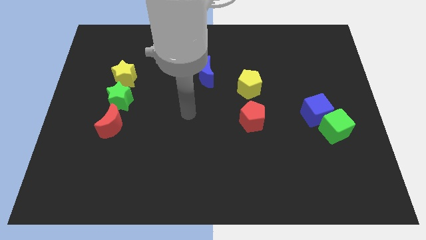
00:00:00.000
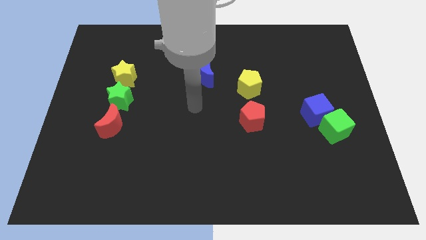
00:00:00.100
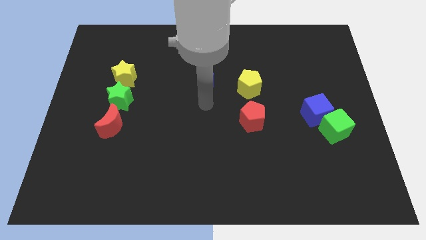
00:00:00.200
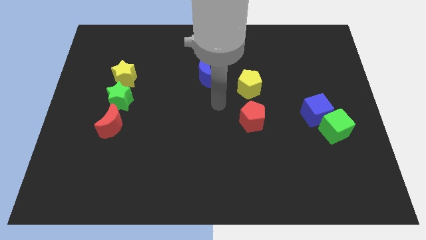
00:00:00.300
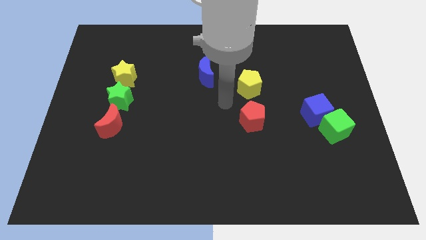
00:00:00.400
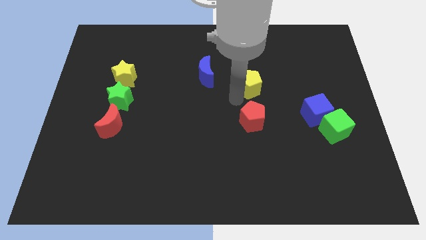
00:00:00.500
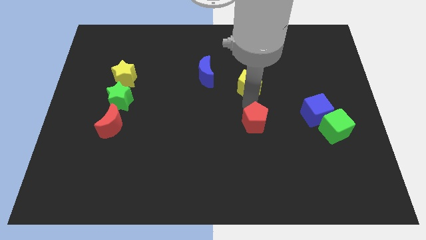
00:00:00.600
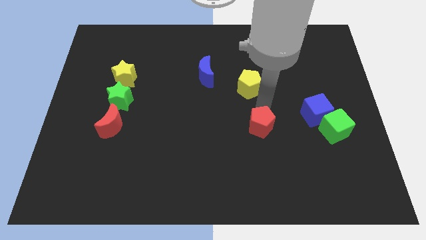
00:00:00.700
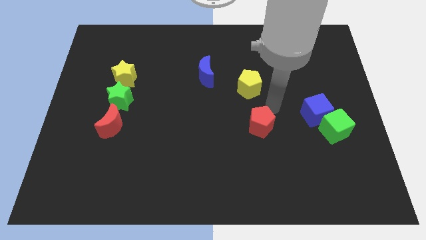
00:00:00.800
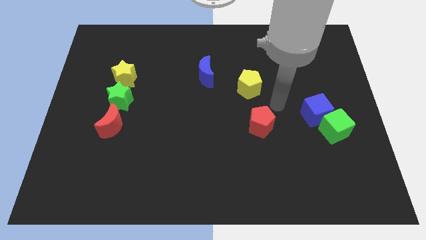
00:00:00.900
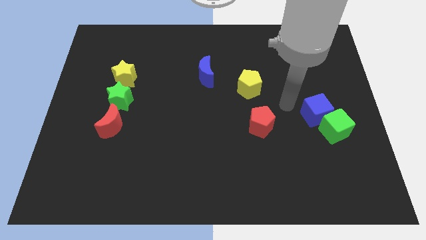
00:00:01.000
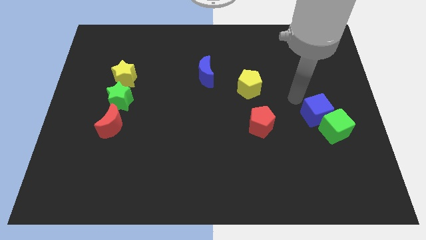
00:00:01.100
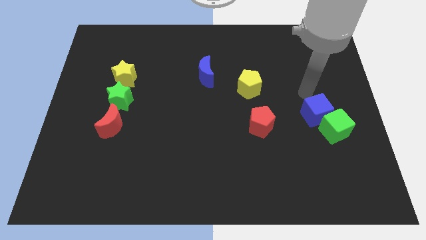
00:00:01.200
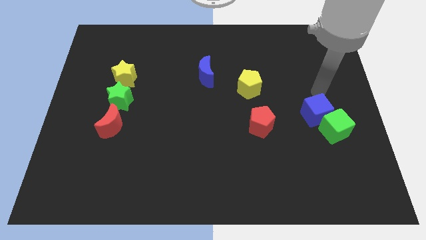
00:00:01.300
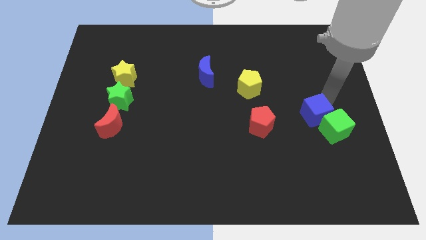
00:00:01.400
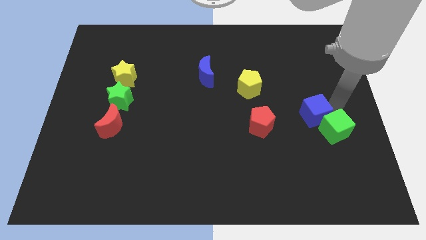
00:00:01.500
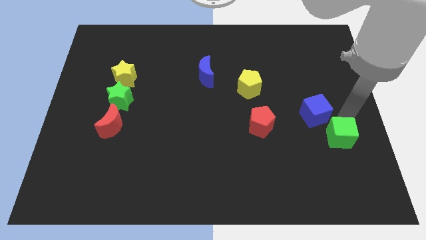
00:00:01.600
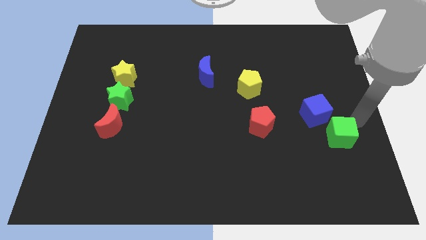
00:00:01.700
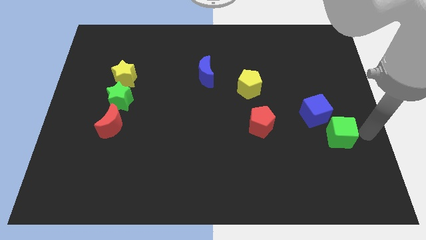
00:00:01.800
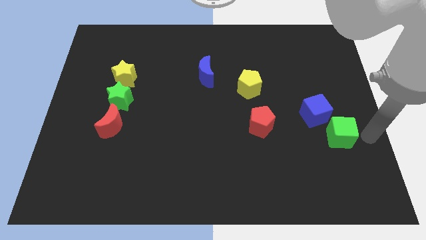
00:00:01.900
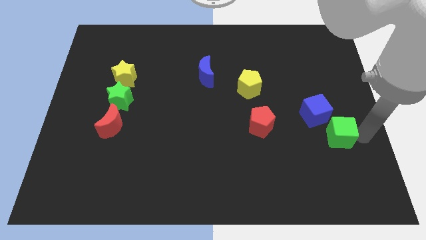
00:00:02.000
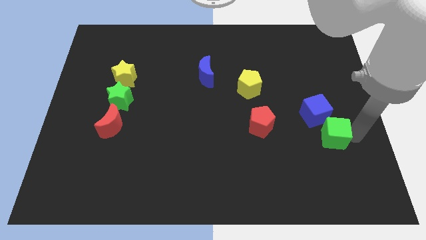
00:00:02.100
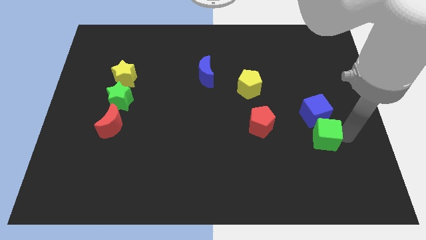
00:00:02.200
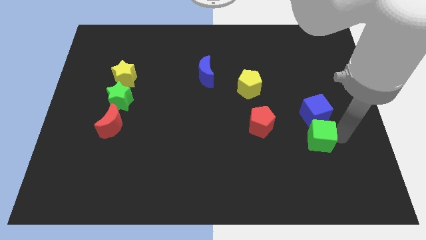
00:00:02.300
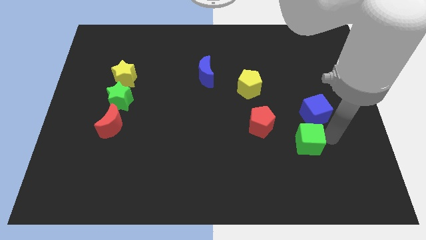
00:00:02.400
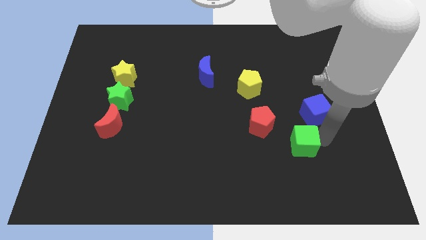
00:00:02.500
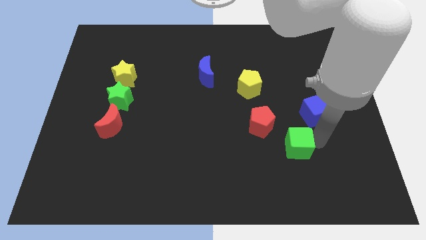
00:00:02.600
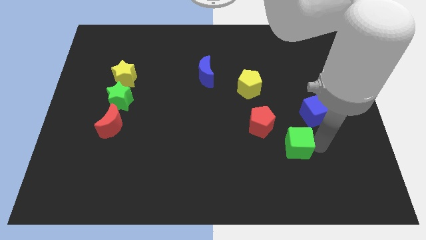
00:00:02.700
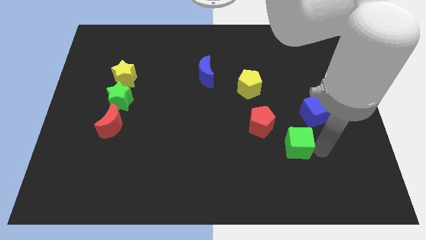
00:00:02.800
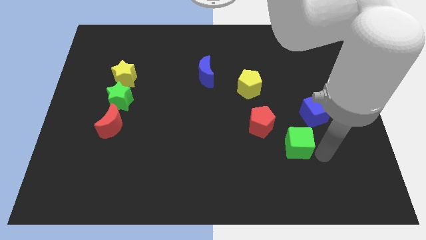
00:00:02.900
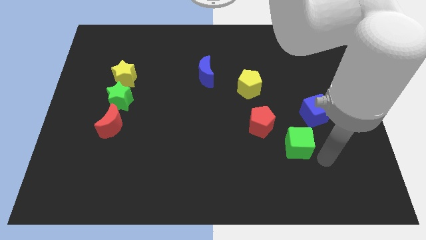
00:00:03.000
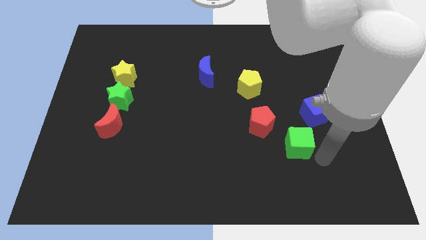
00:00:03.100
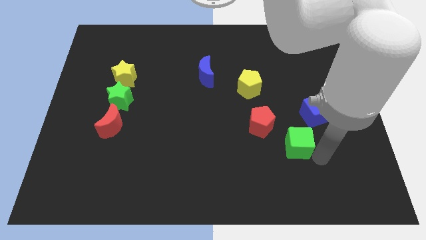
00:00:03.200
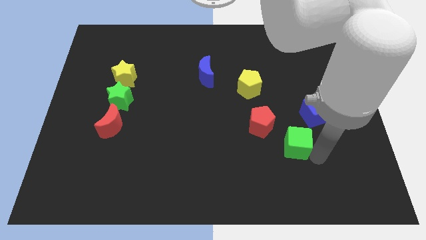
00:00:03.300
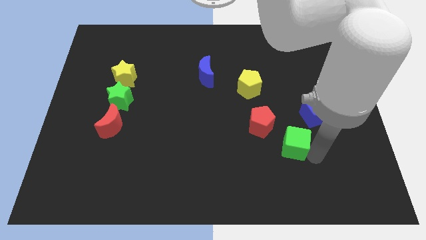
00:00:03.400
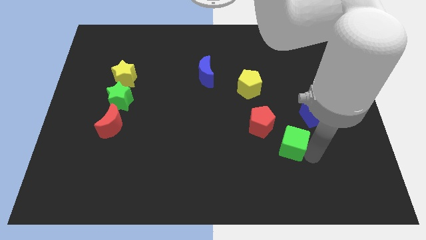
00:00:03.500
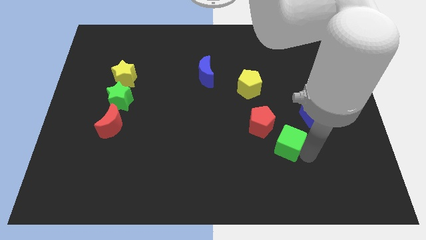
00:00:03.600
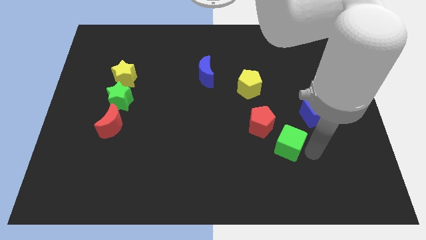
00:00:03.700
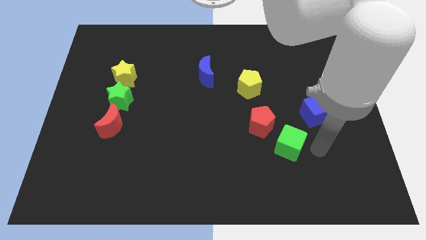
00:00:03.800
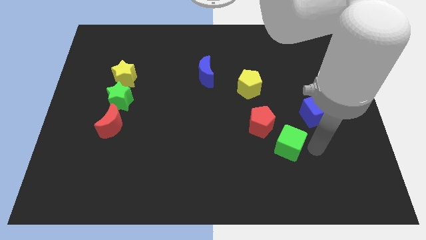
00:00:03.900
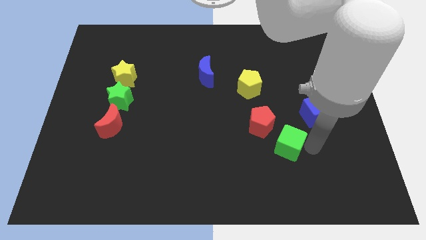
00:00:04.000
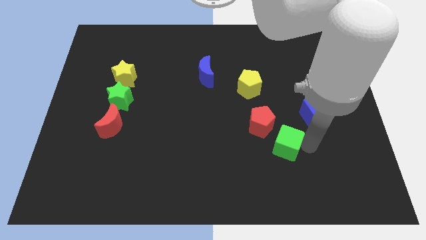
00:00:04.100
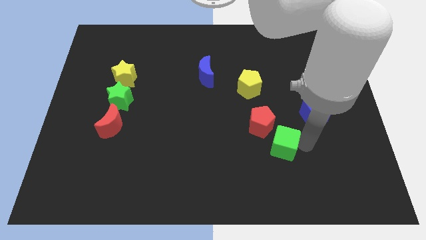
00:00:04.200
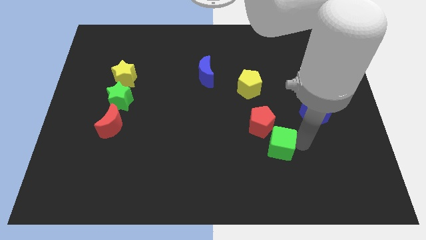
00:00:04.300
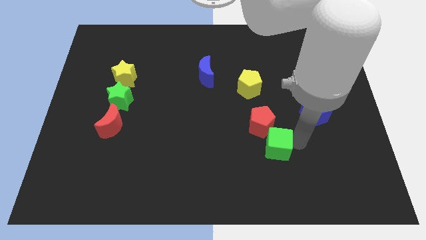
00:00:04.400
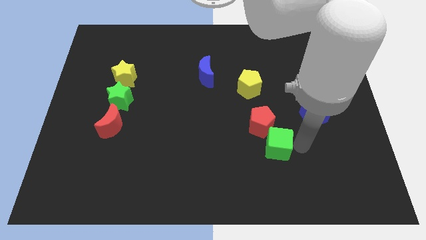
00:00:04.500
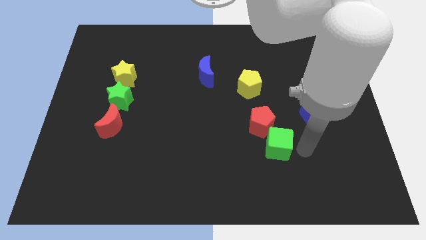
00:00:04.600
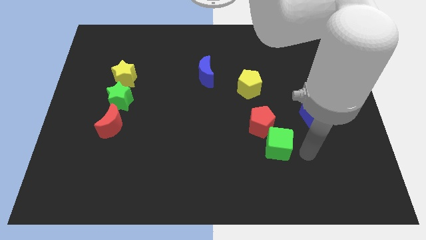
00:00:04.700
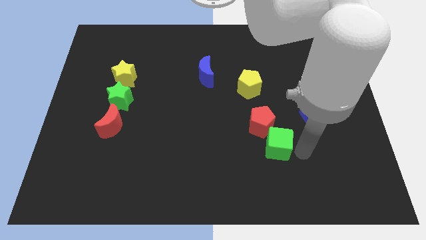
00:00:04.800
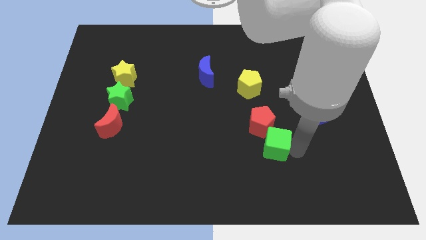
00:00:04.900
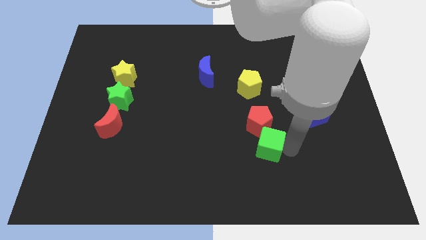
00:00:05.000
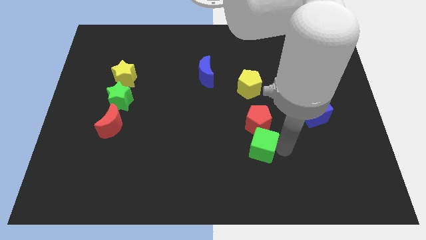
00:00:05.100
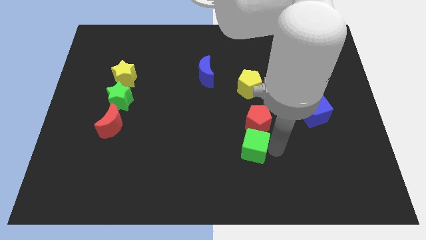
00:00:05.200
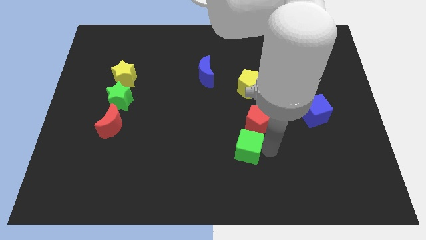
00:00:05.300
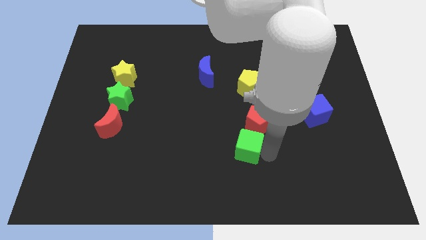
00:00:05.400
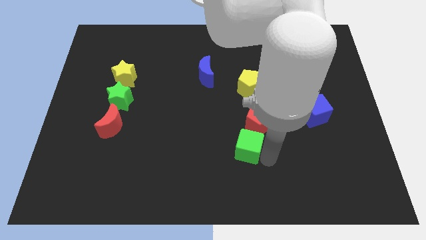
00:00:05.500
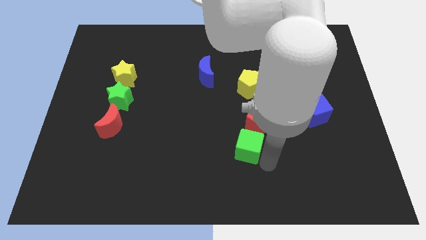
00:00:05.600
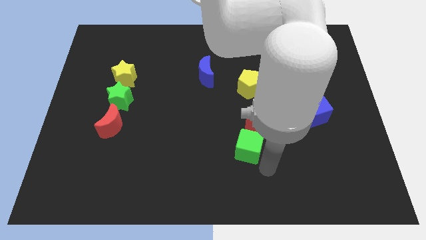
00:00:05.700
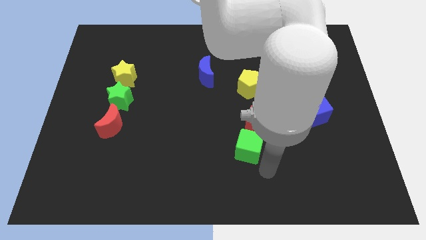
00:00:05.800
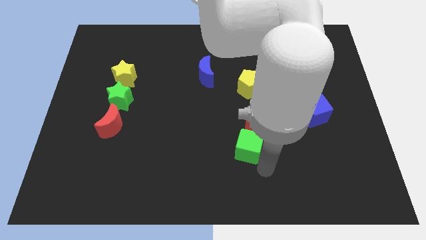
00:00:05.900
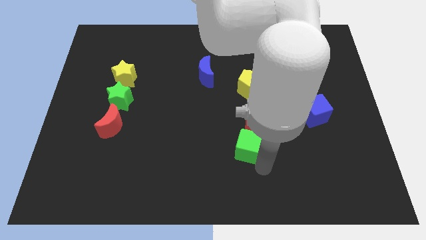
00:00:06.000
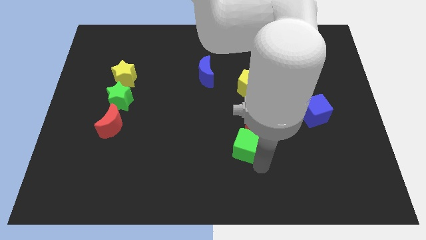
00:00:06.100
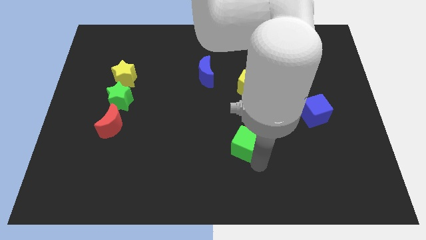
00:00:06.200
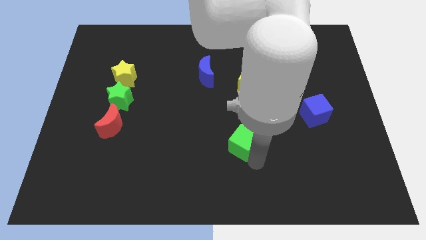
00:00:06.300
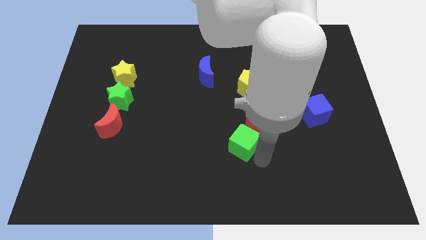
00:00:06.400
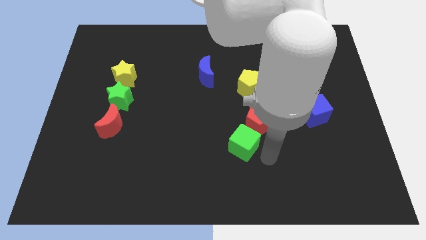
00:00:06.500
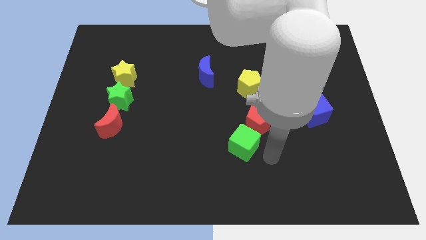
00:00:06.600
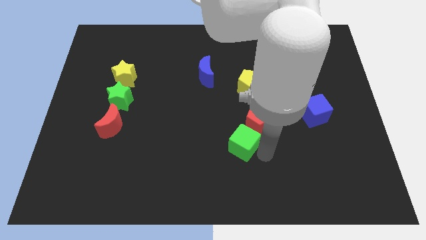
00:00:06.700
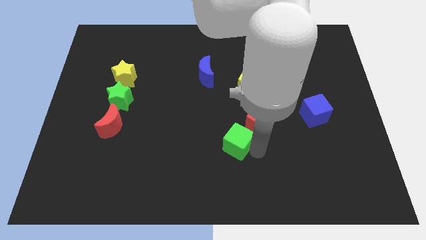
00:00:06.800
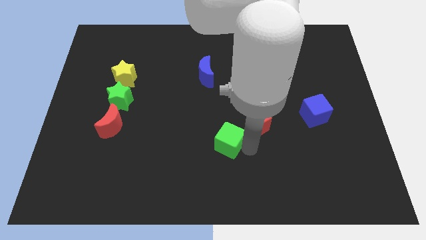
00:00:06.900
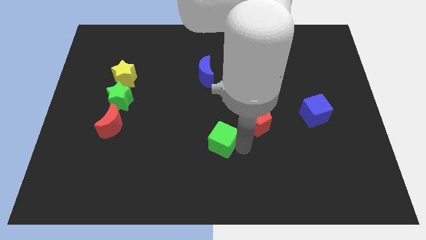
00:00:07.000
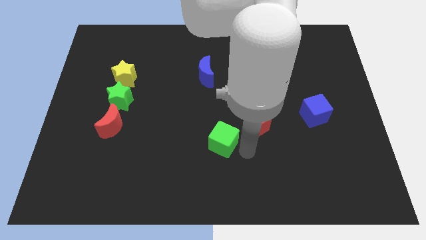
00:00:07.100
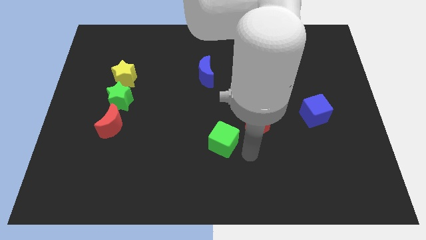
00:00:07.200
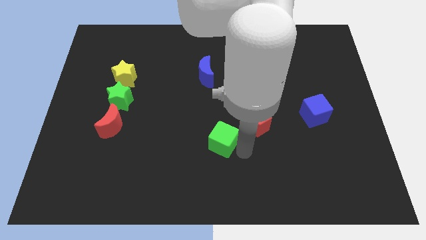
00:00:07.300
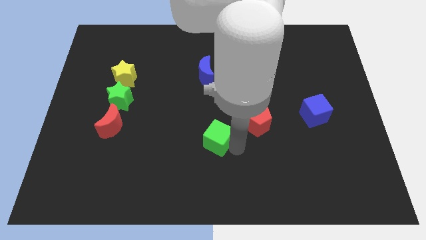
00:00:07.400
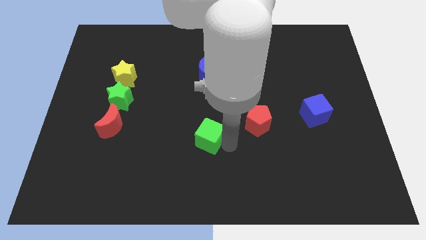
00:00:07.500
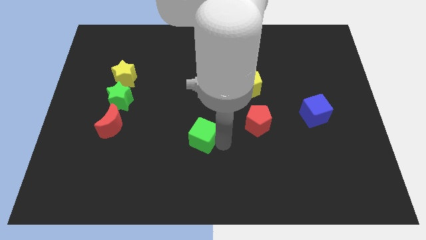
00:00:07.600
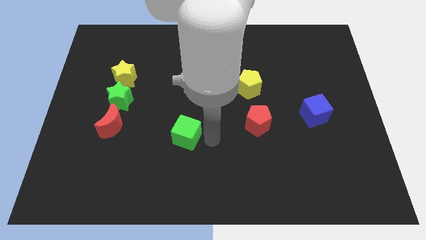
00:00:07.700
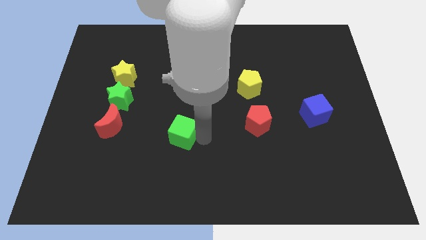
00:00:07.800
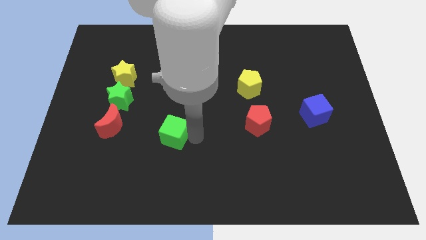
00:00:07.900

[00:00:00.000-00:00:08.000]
put the green cube just right of the red moon
